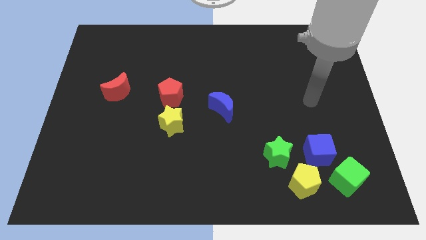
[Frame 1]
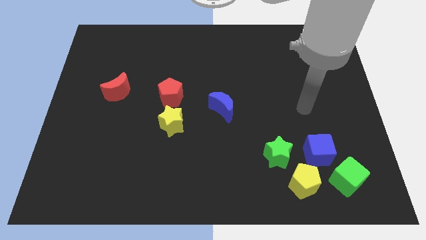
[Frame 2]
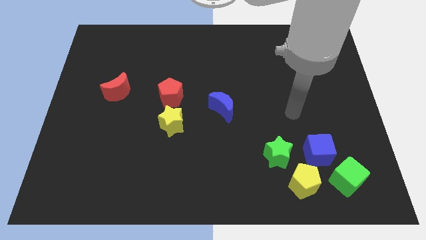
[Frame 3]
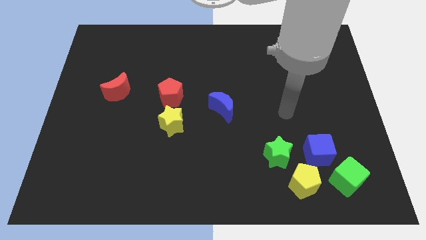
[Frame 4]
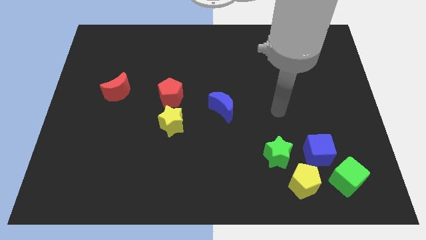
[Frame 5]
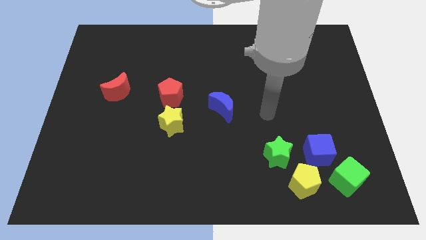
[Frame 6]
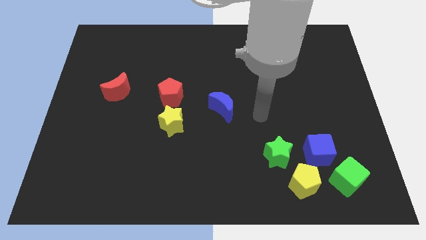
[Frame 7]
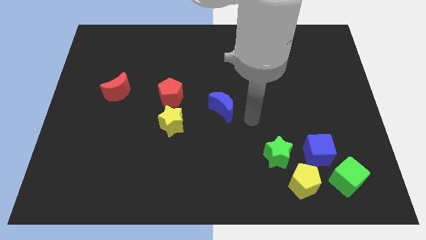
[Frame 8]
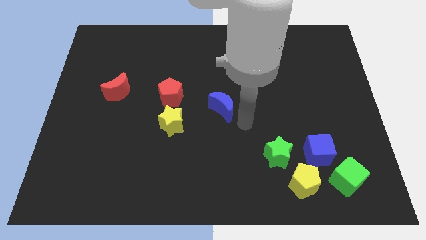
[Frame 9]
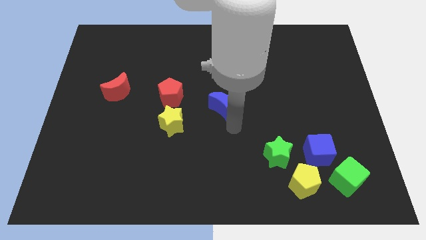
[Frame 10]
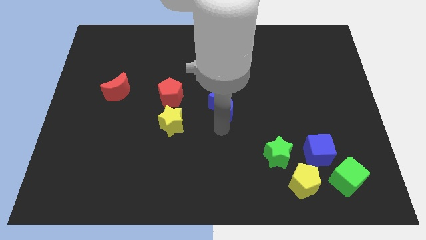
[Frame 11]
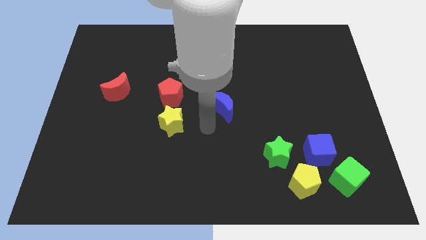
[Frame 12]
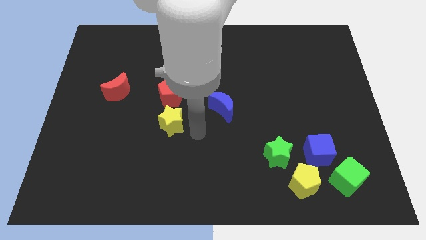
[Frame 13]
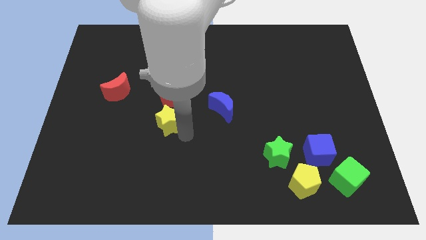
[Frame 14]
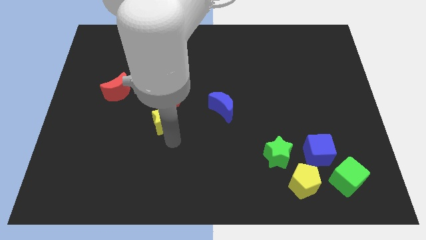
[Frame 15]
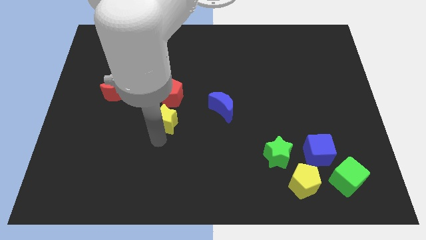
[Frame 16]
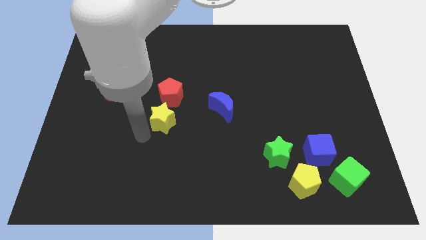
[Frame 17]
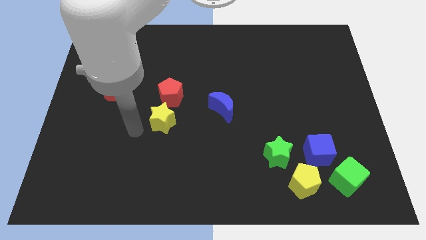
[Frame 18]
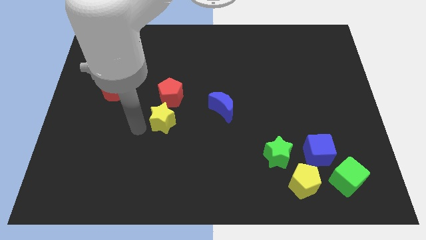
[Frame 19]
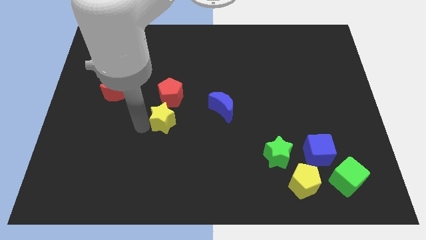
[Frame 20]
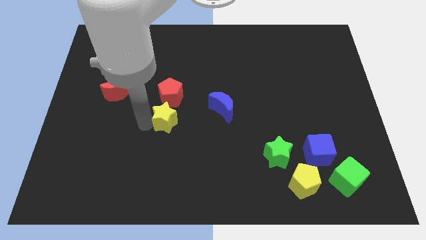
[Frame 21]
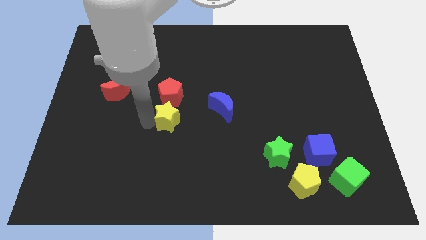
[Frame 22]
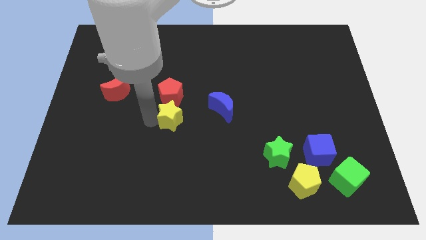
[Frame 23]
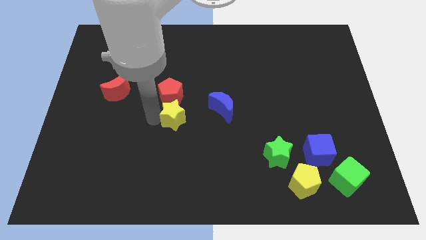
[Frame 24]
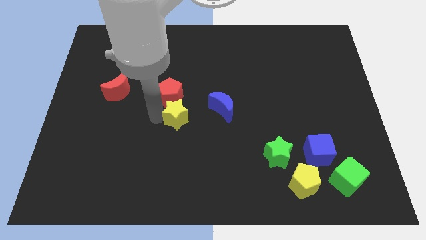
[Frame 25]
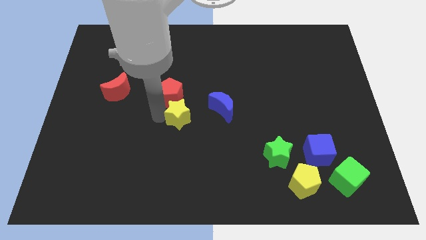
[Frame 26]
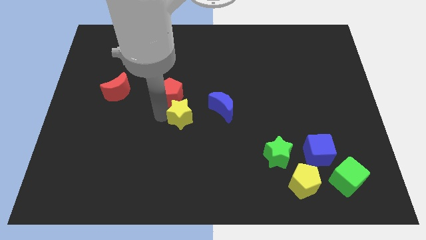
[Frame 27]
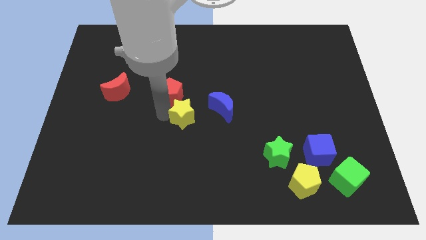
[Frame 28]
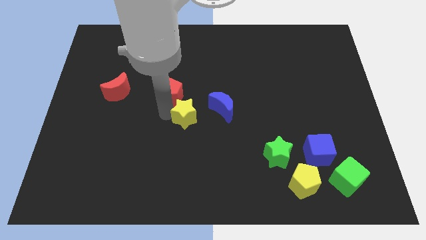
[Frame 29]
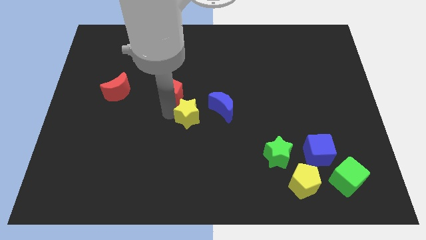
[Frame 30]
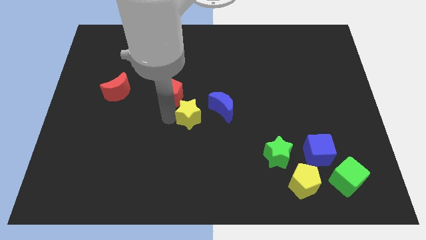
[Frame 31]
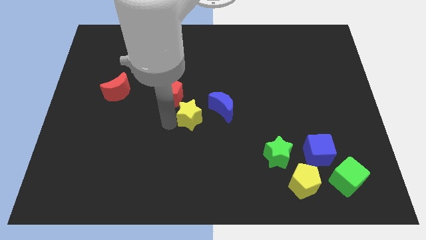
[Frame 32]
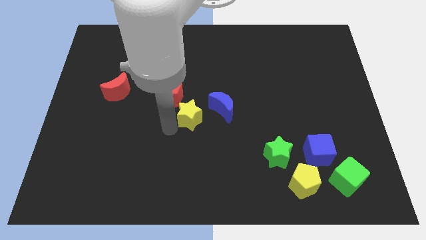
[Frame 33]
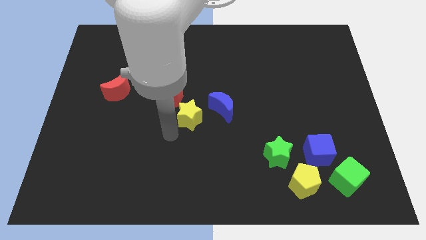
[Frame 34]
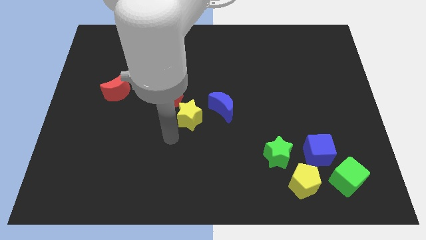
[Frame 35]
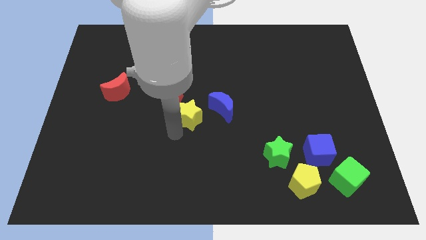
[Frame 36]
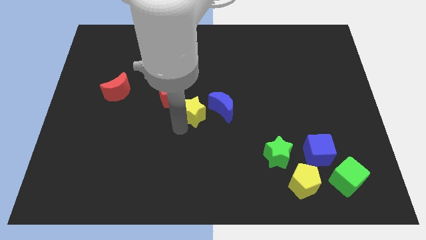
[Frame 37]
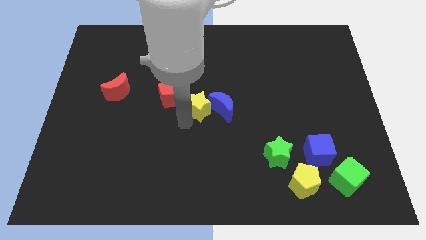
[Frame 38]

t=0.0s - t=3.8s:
push the yellow star up and then right a little bit

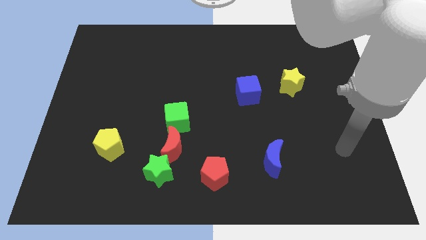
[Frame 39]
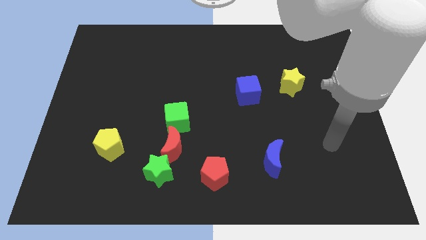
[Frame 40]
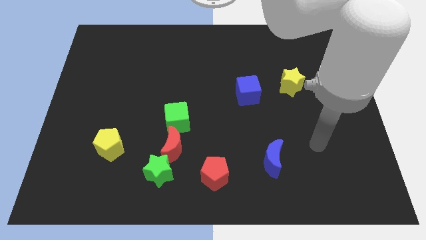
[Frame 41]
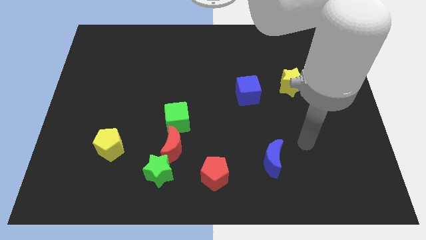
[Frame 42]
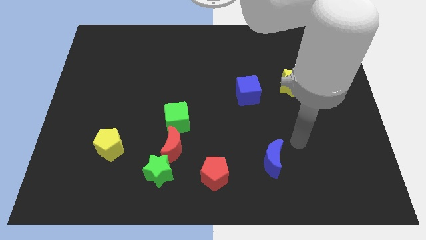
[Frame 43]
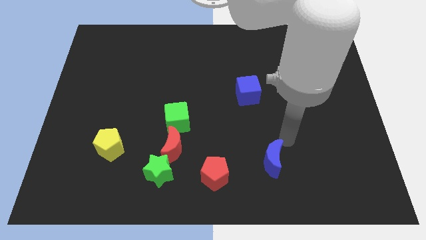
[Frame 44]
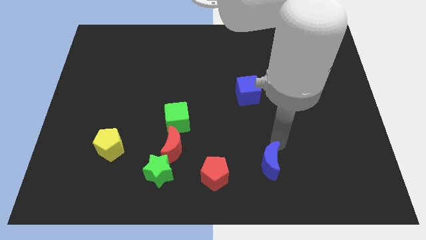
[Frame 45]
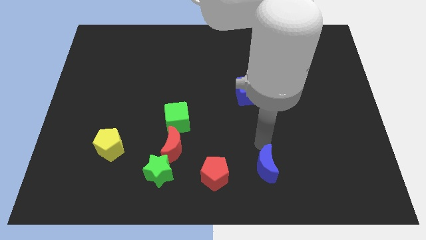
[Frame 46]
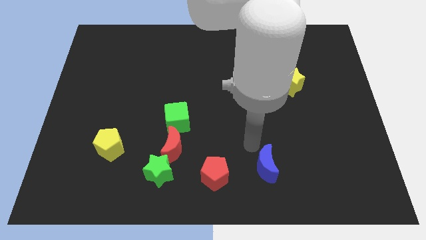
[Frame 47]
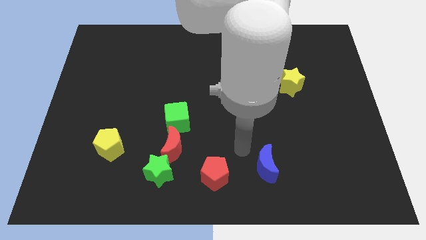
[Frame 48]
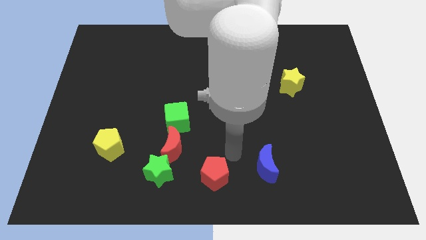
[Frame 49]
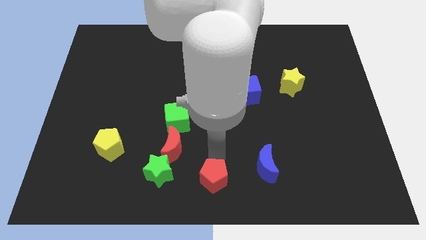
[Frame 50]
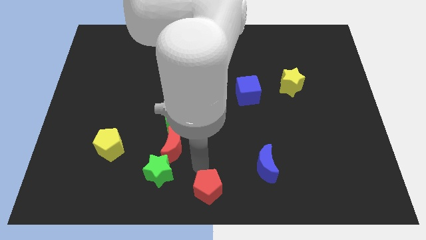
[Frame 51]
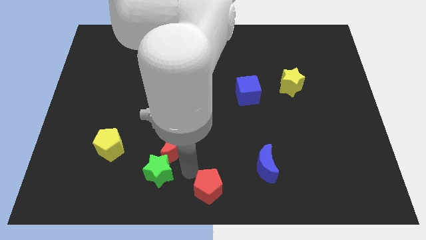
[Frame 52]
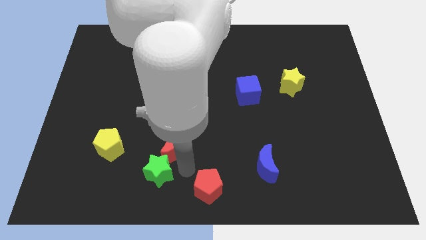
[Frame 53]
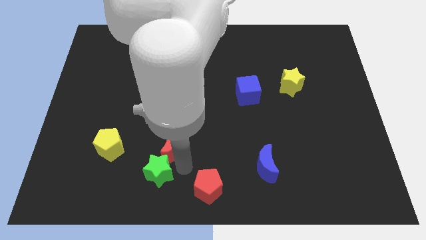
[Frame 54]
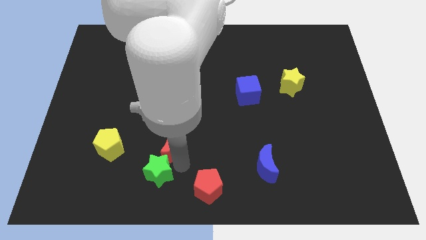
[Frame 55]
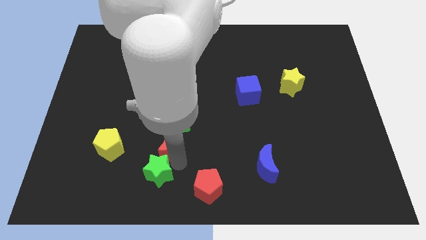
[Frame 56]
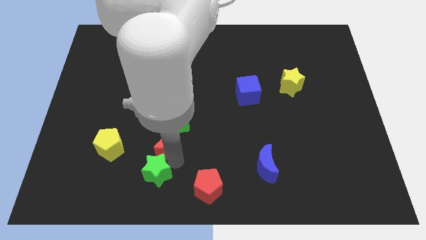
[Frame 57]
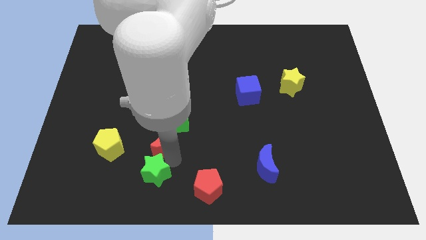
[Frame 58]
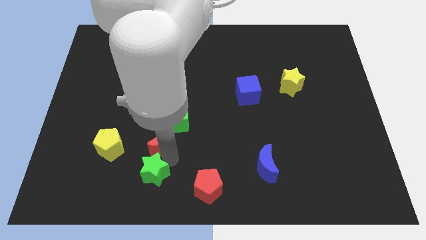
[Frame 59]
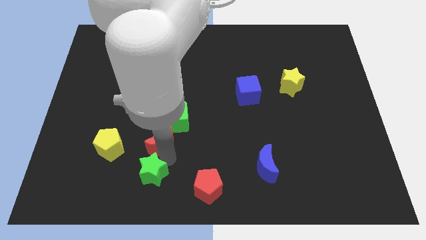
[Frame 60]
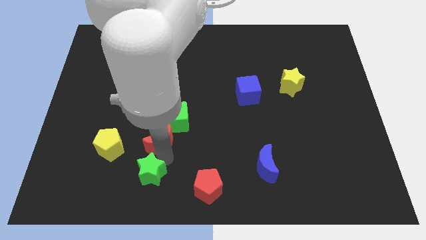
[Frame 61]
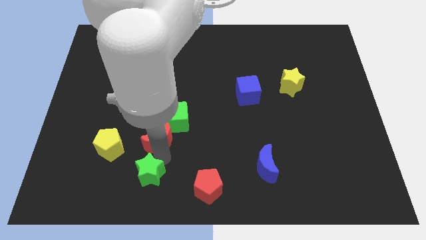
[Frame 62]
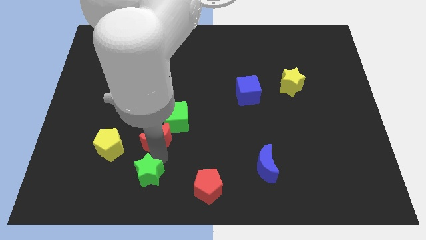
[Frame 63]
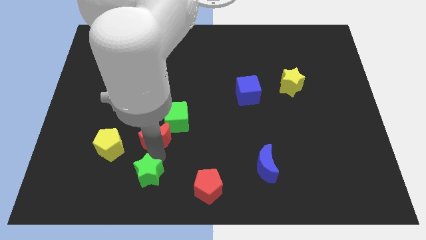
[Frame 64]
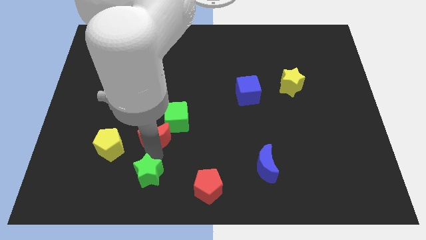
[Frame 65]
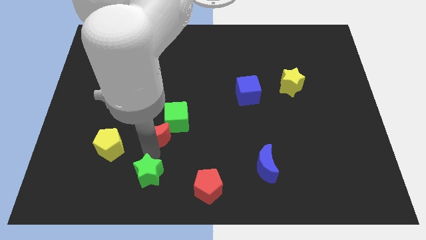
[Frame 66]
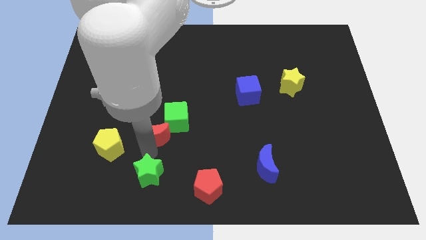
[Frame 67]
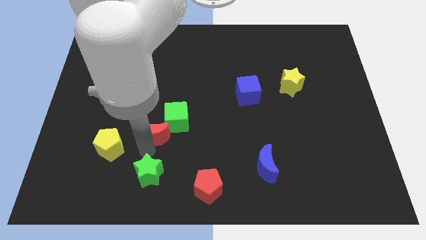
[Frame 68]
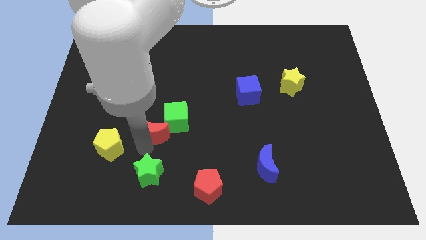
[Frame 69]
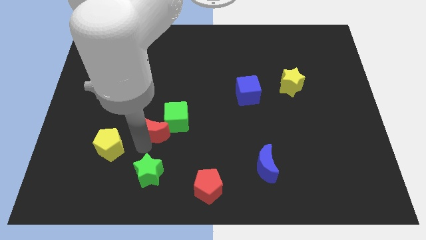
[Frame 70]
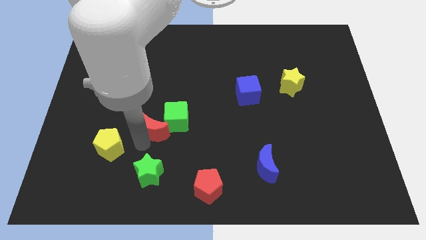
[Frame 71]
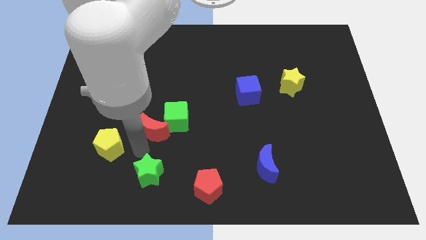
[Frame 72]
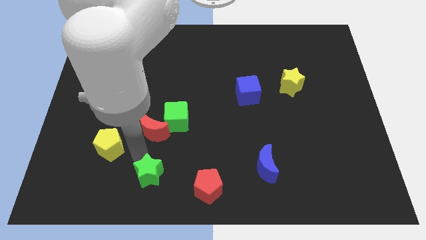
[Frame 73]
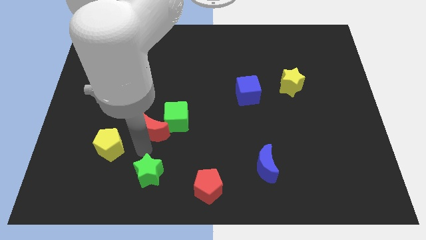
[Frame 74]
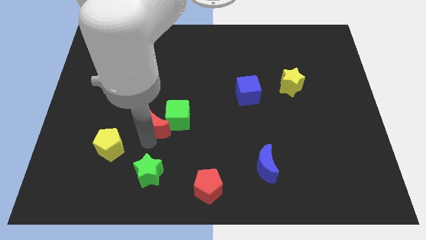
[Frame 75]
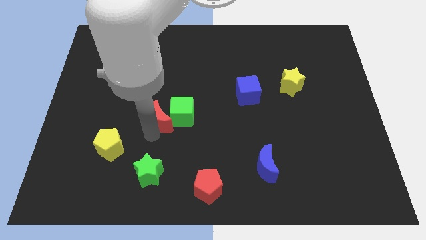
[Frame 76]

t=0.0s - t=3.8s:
push the red moon a little bit upwards

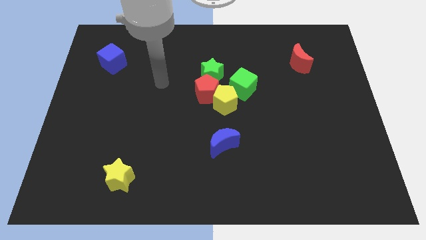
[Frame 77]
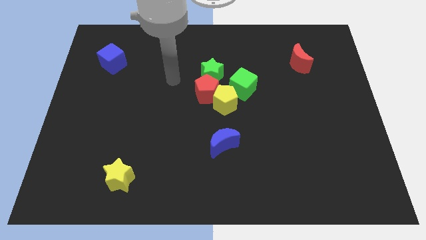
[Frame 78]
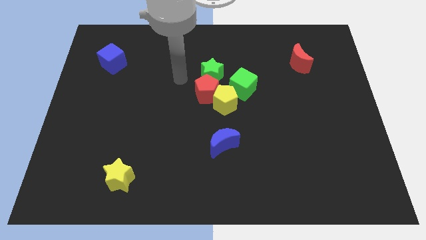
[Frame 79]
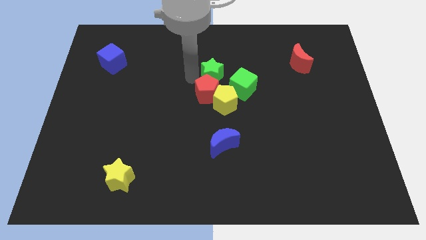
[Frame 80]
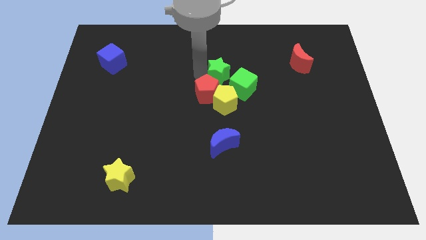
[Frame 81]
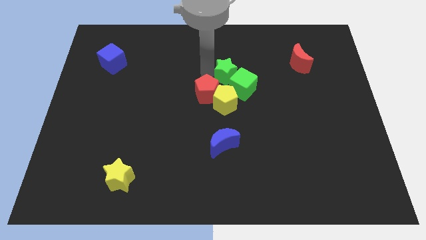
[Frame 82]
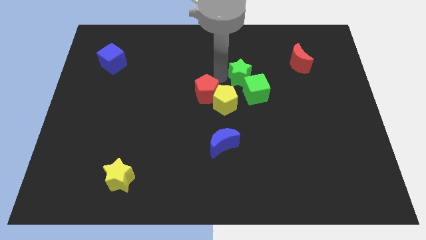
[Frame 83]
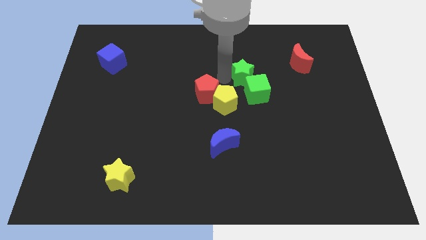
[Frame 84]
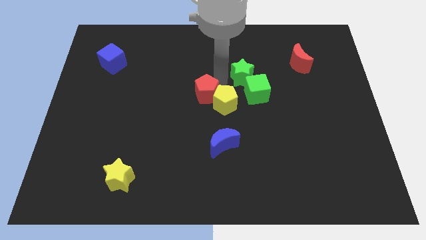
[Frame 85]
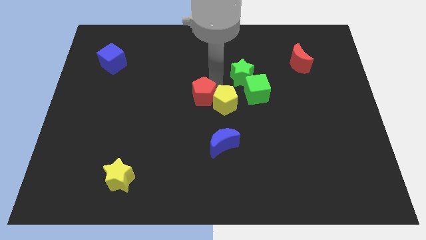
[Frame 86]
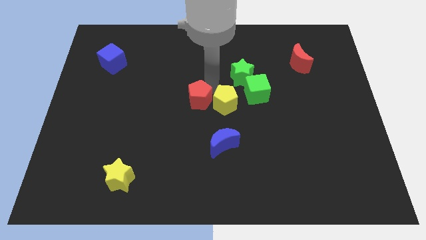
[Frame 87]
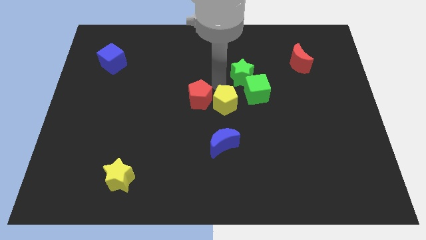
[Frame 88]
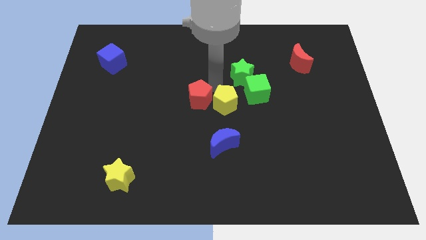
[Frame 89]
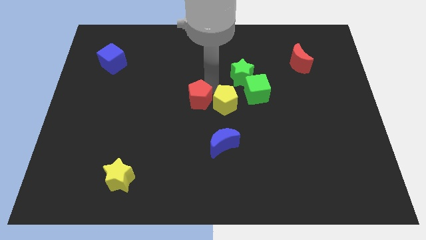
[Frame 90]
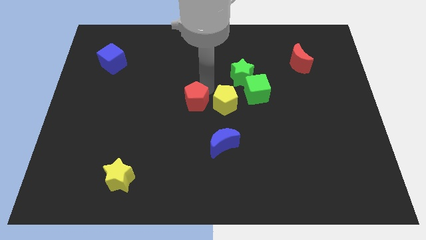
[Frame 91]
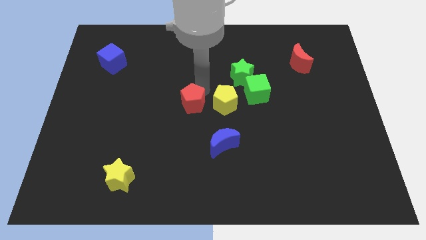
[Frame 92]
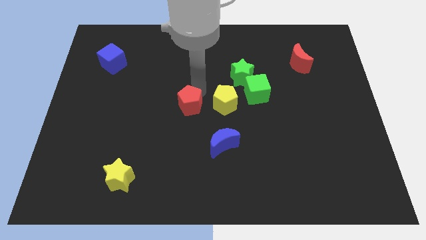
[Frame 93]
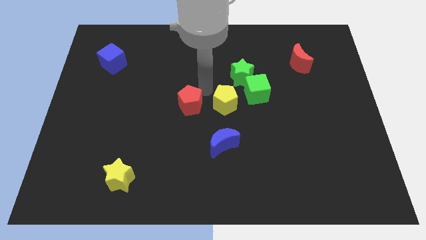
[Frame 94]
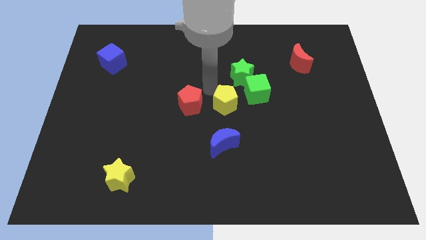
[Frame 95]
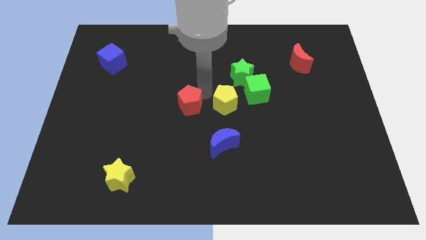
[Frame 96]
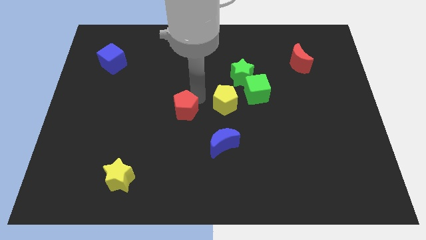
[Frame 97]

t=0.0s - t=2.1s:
slide the red pentagon down and then to the left slightly
